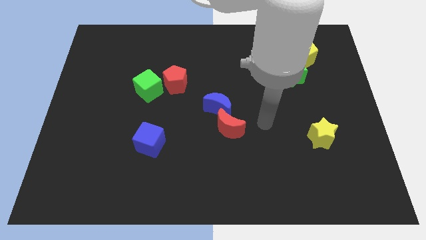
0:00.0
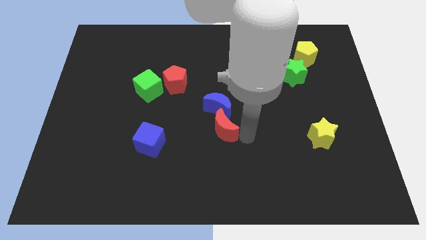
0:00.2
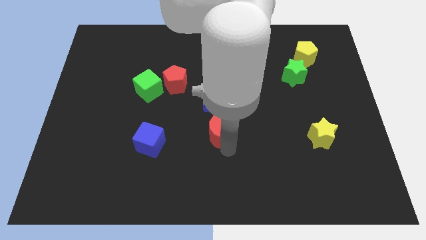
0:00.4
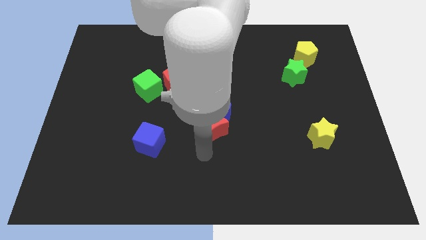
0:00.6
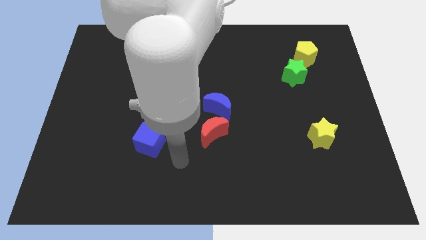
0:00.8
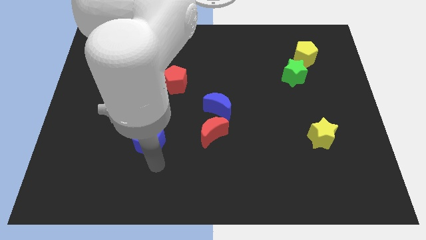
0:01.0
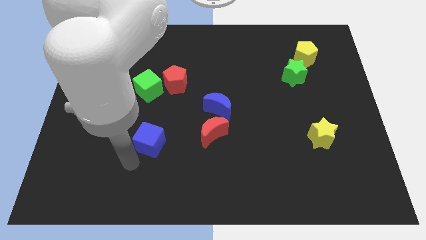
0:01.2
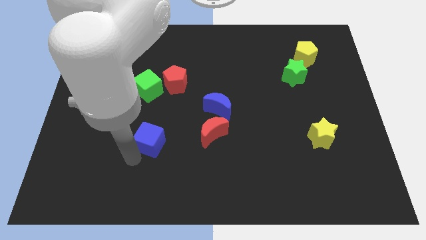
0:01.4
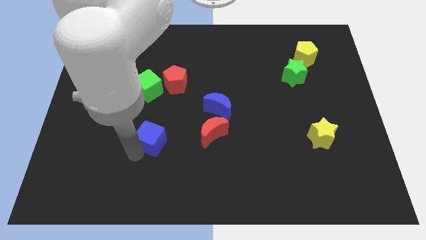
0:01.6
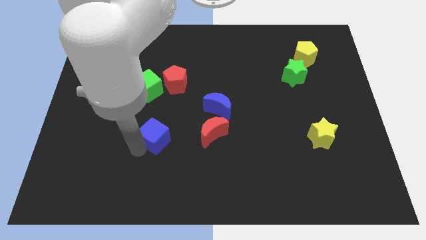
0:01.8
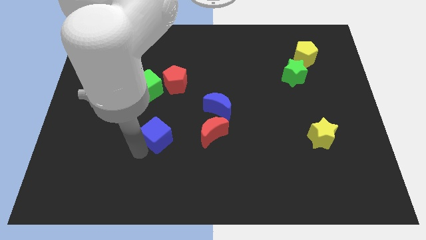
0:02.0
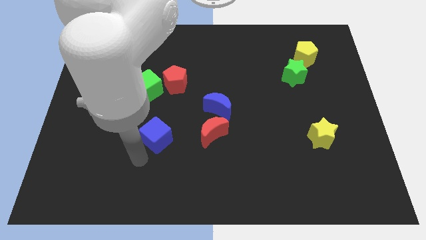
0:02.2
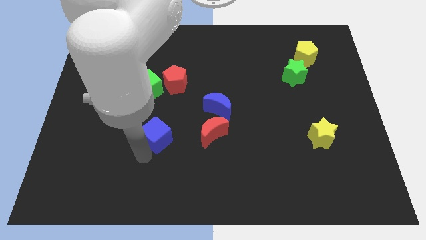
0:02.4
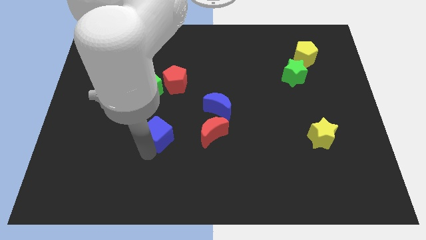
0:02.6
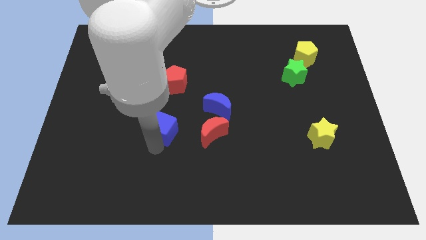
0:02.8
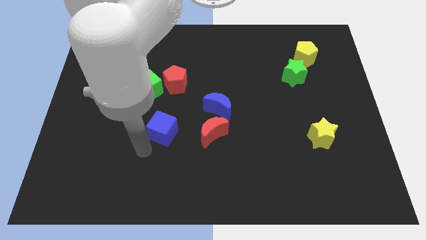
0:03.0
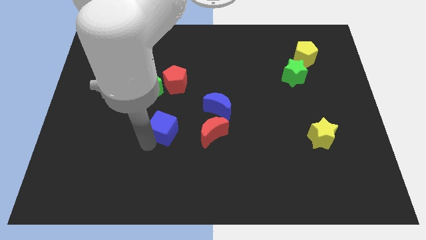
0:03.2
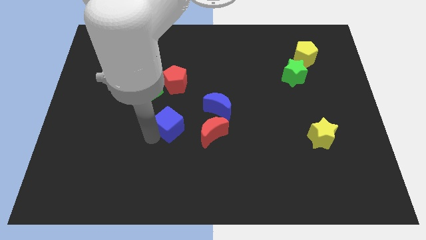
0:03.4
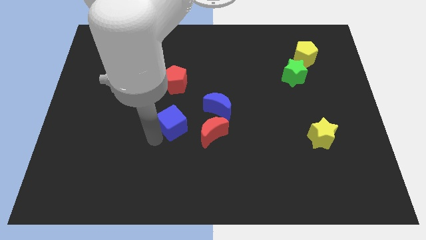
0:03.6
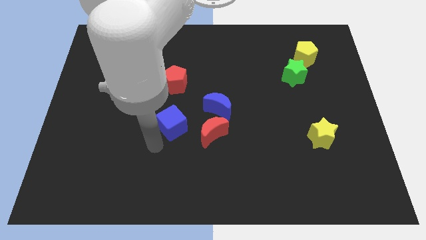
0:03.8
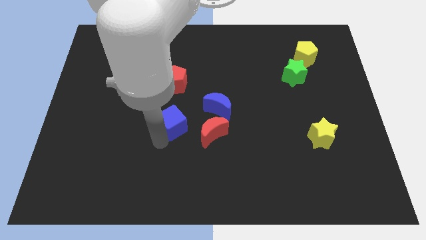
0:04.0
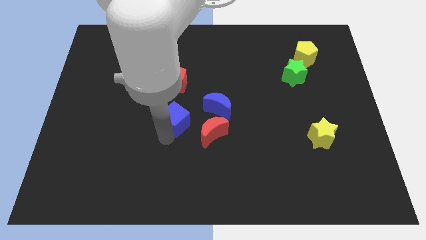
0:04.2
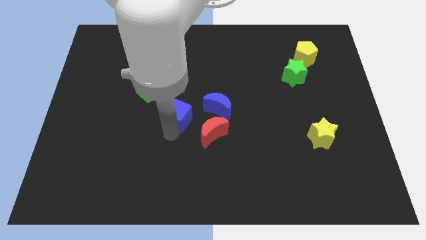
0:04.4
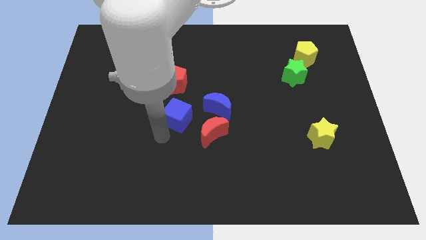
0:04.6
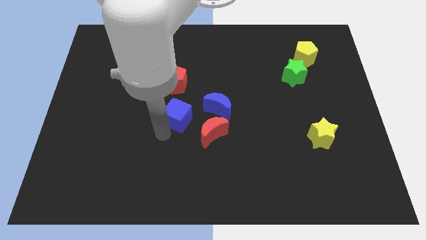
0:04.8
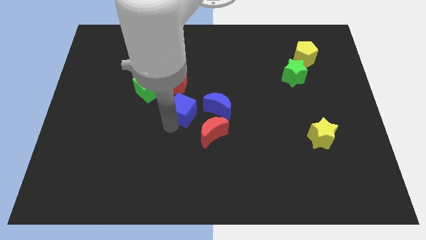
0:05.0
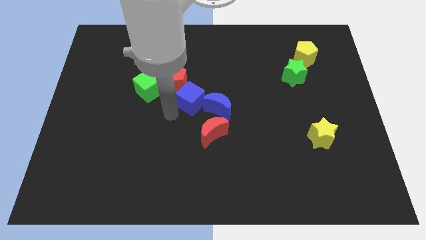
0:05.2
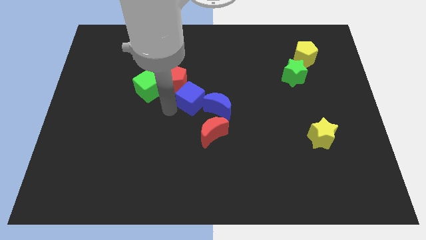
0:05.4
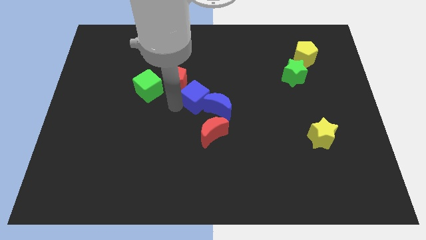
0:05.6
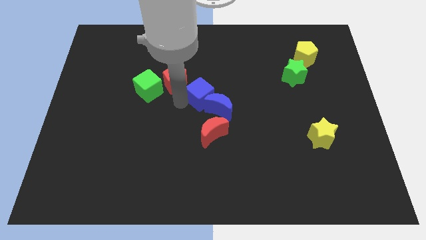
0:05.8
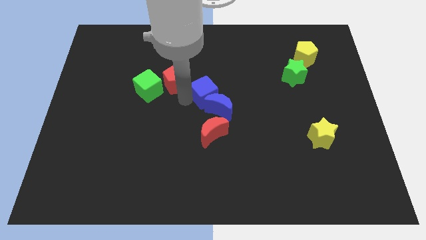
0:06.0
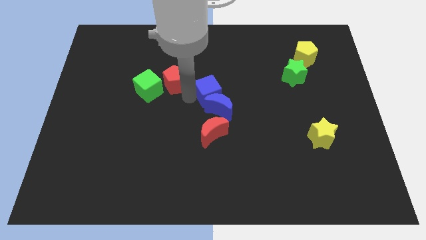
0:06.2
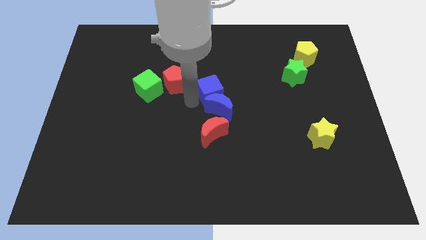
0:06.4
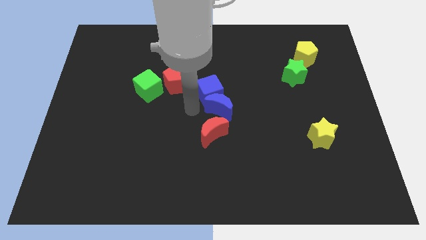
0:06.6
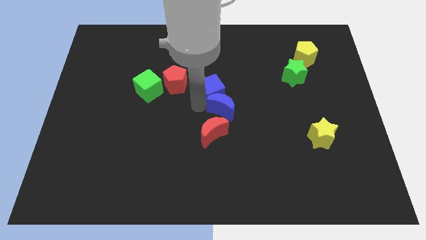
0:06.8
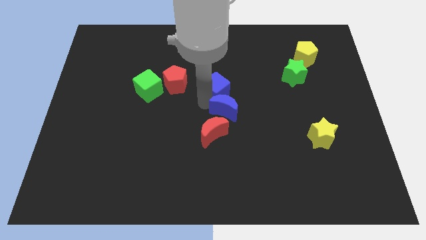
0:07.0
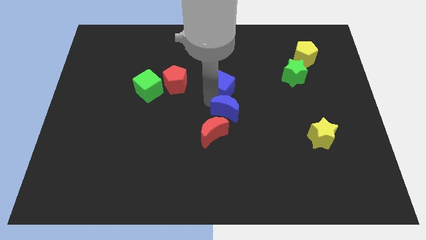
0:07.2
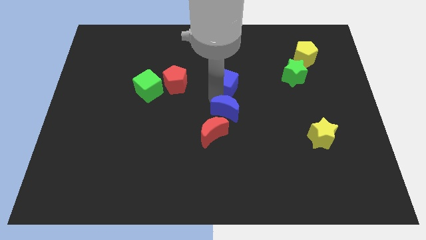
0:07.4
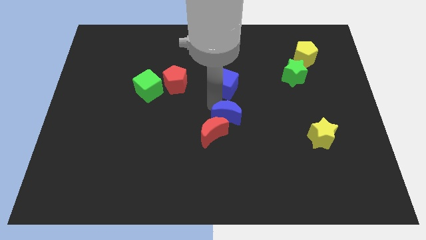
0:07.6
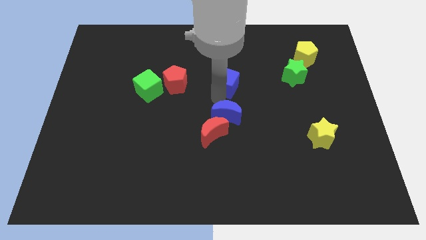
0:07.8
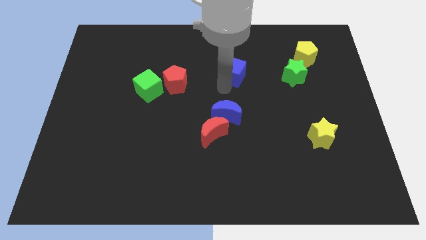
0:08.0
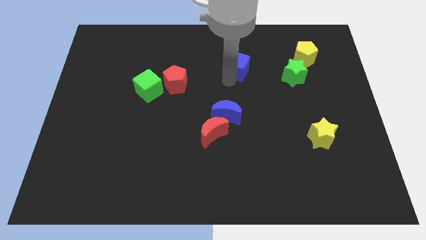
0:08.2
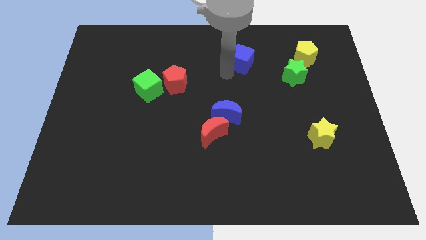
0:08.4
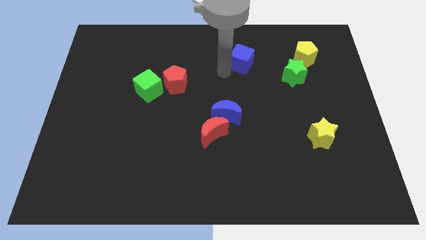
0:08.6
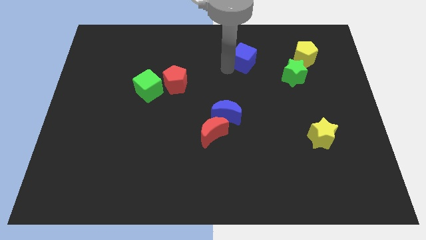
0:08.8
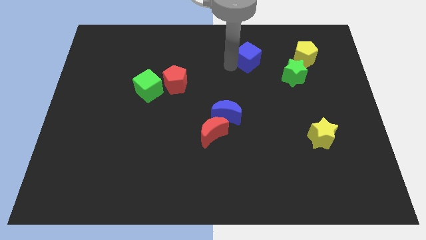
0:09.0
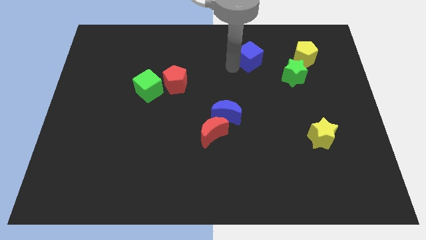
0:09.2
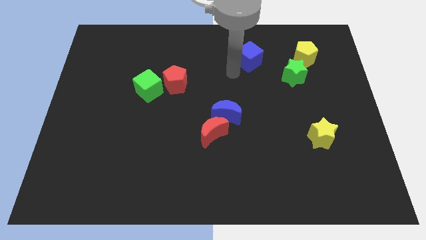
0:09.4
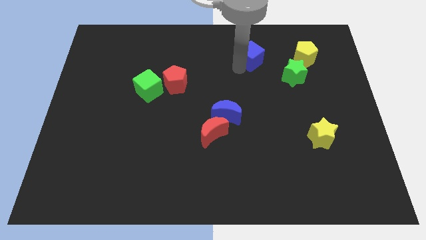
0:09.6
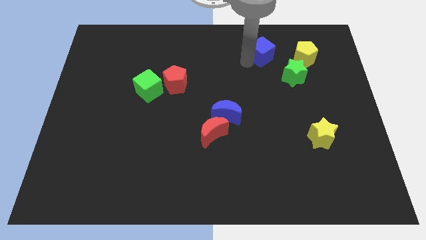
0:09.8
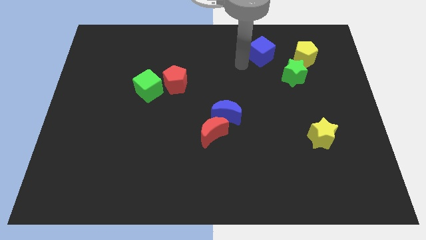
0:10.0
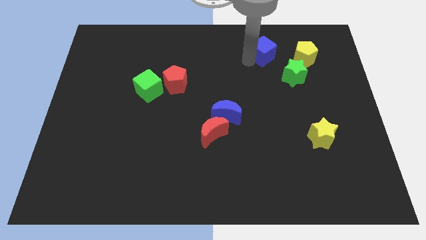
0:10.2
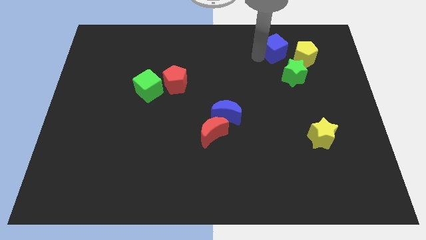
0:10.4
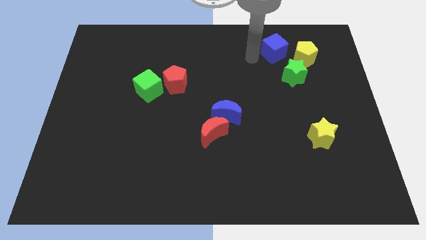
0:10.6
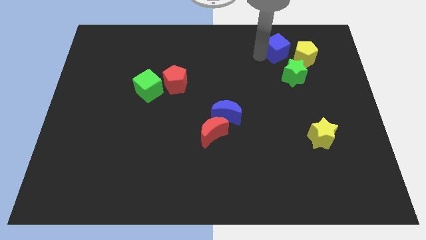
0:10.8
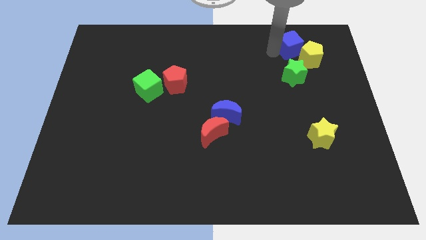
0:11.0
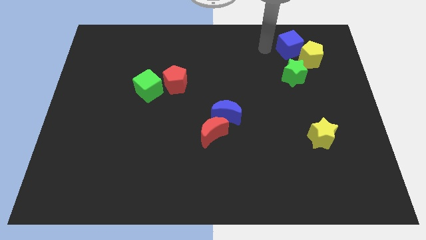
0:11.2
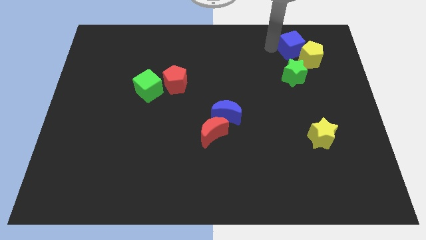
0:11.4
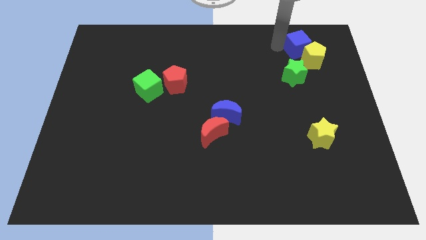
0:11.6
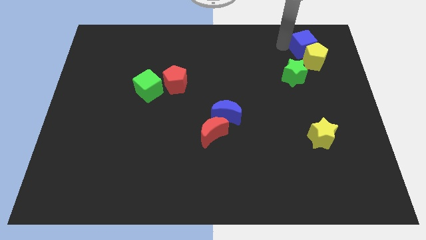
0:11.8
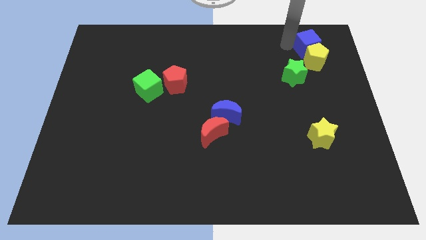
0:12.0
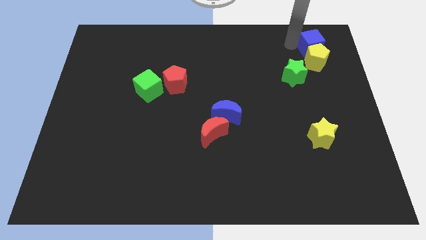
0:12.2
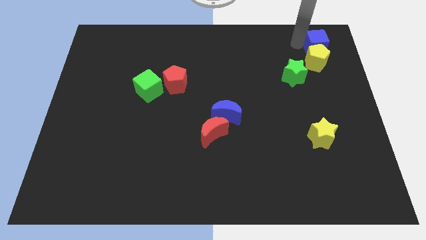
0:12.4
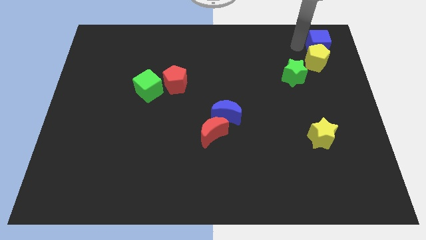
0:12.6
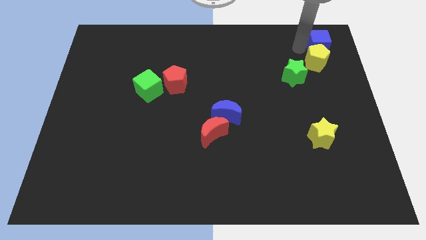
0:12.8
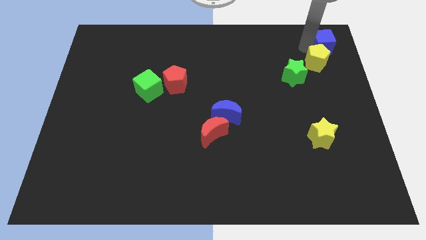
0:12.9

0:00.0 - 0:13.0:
move the blue cube to the top right
